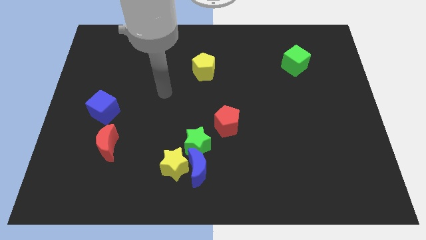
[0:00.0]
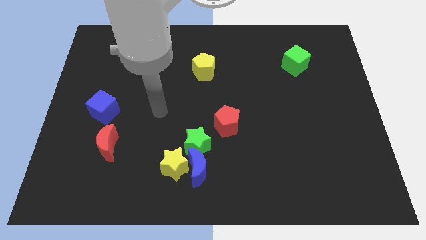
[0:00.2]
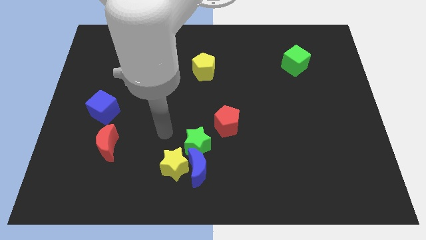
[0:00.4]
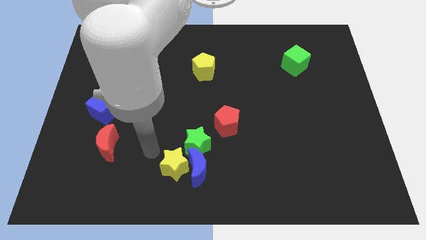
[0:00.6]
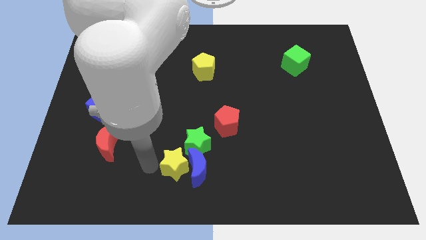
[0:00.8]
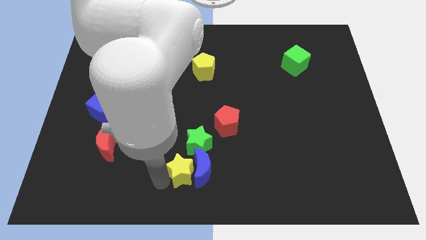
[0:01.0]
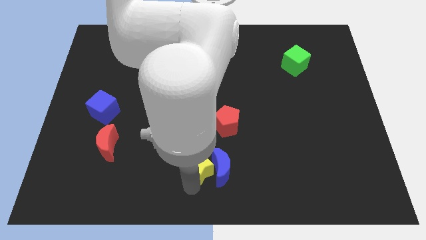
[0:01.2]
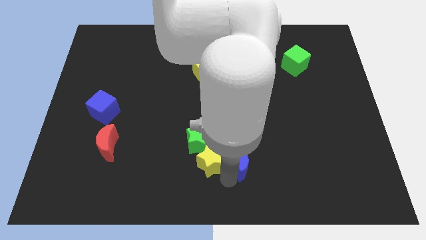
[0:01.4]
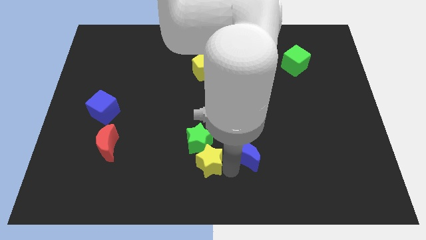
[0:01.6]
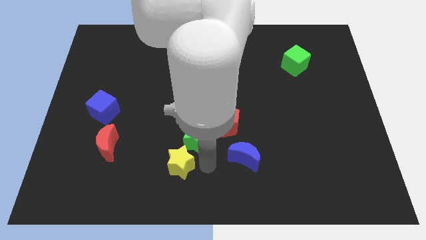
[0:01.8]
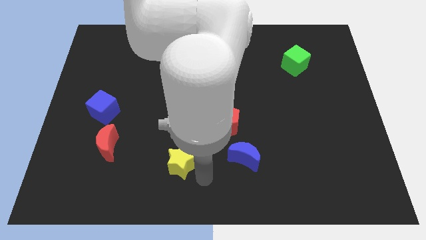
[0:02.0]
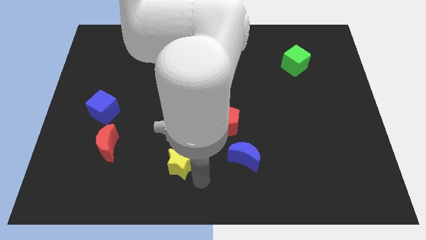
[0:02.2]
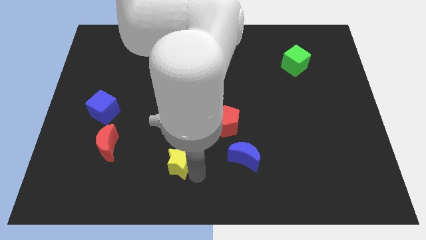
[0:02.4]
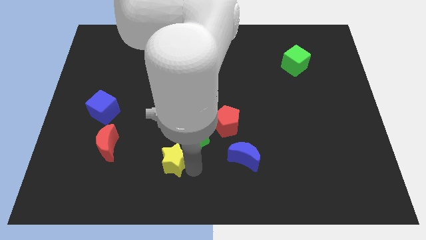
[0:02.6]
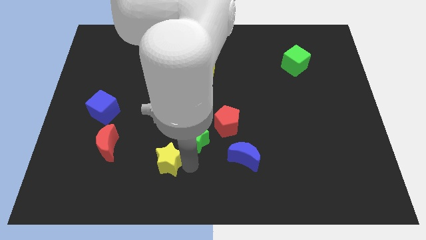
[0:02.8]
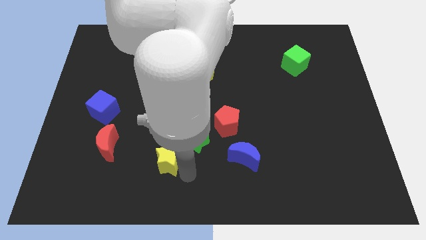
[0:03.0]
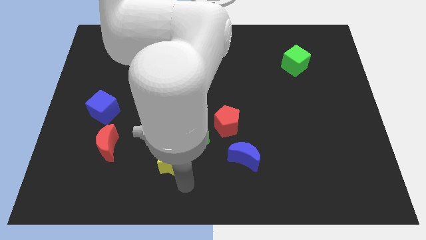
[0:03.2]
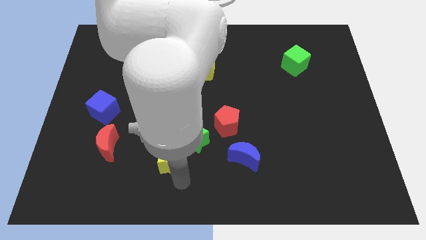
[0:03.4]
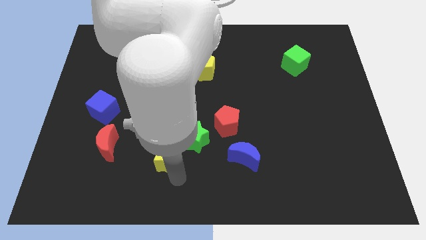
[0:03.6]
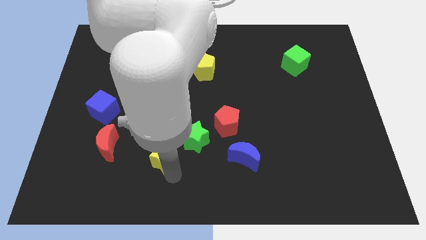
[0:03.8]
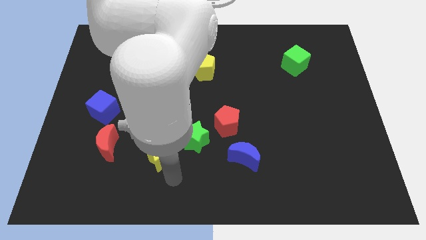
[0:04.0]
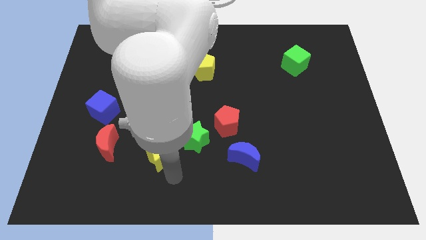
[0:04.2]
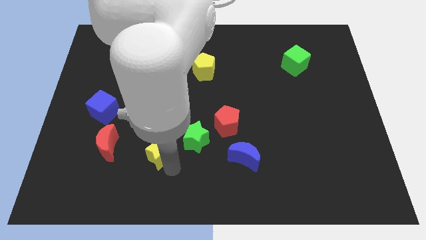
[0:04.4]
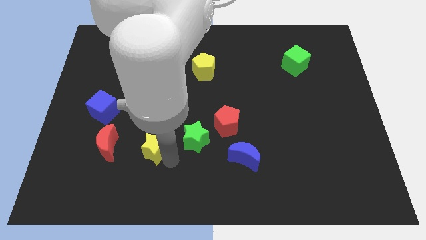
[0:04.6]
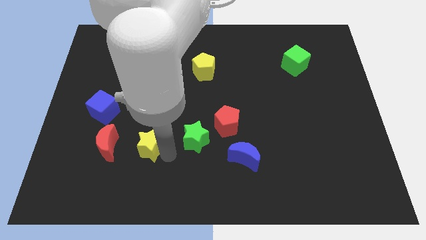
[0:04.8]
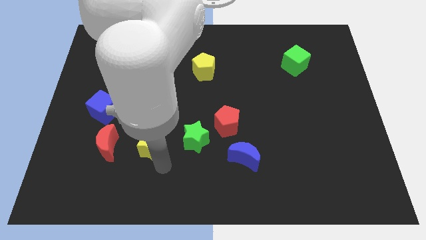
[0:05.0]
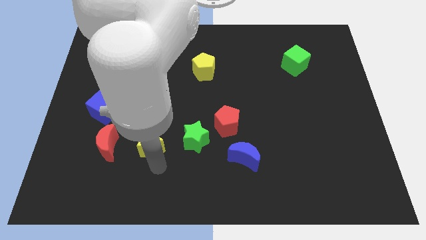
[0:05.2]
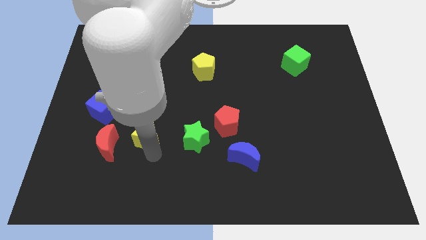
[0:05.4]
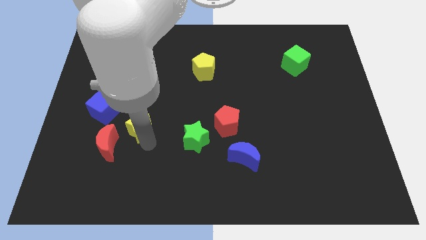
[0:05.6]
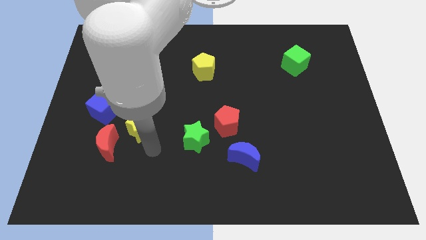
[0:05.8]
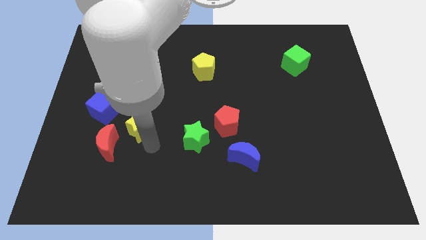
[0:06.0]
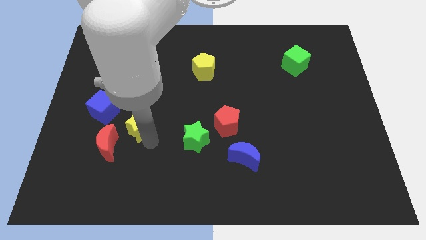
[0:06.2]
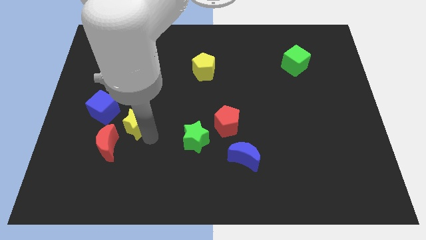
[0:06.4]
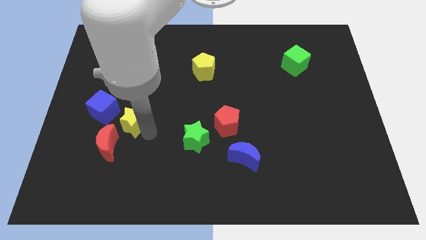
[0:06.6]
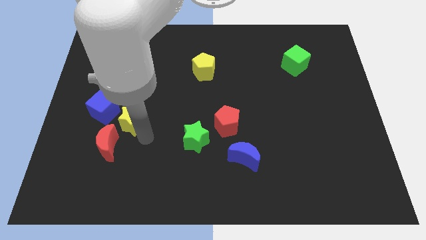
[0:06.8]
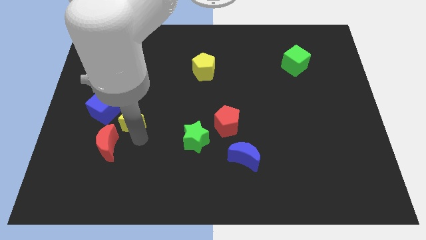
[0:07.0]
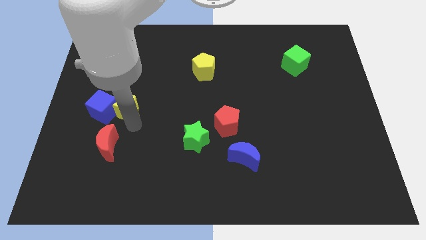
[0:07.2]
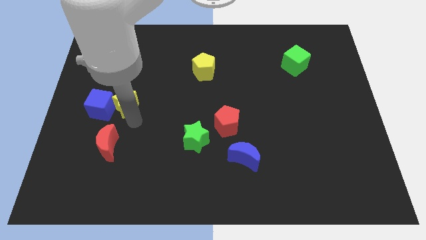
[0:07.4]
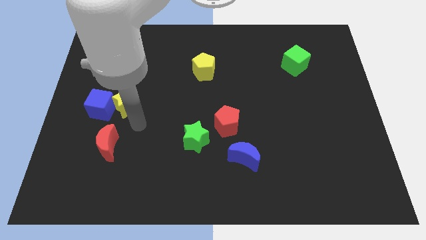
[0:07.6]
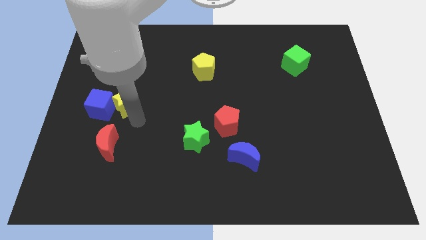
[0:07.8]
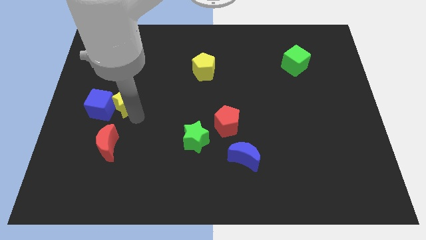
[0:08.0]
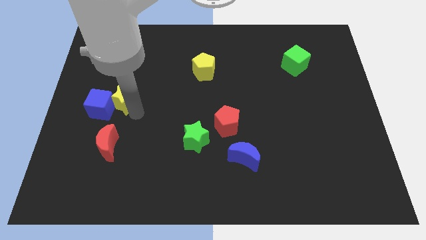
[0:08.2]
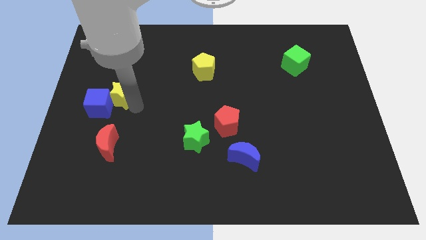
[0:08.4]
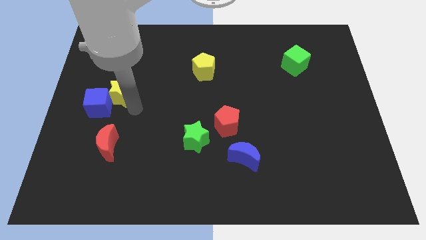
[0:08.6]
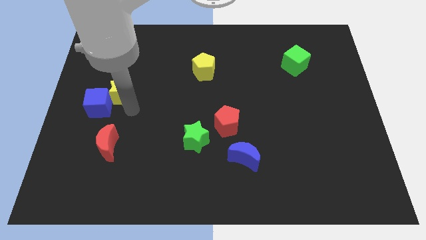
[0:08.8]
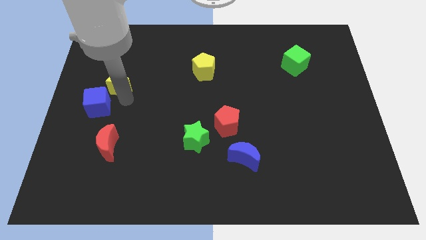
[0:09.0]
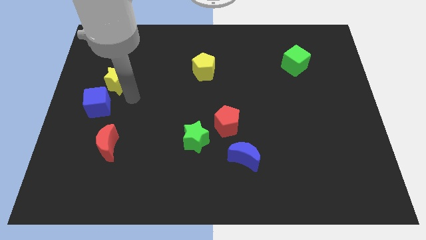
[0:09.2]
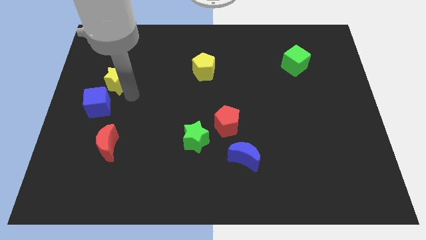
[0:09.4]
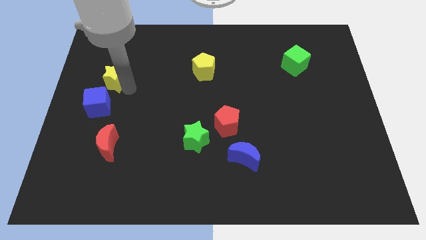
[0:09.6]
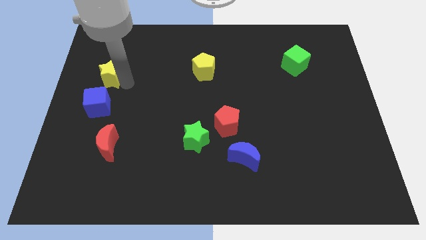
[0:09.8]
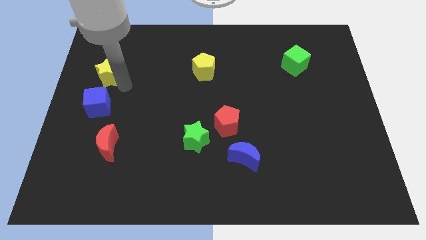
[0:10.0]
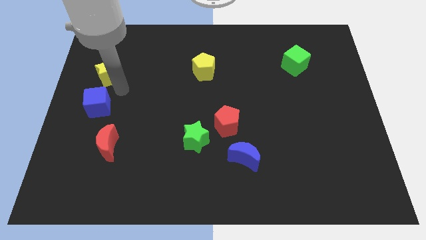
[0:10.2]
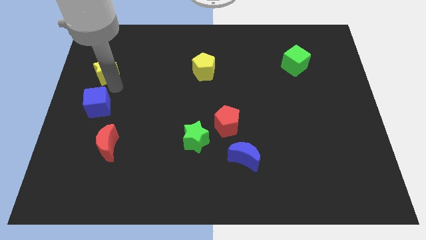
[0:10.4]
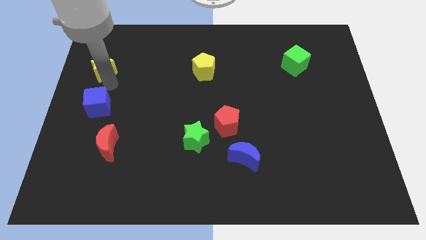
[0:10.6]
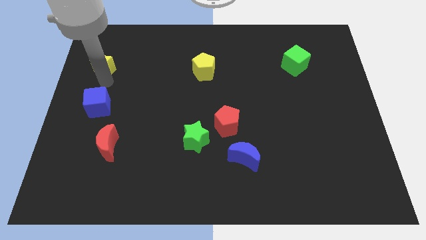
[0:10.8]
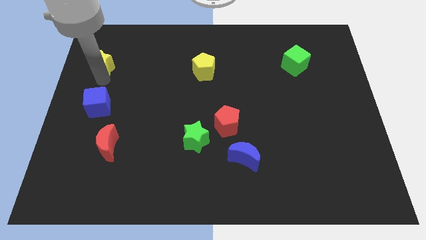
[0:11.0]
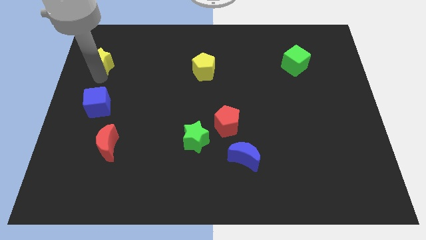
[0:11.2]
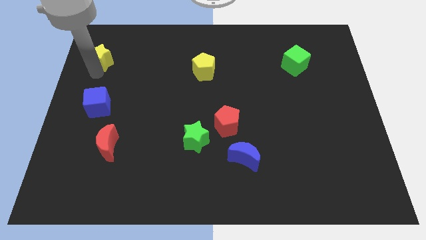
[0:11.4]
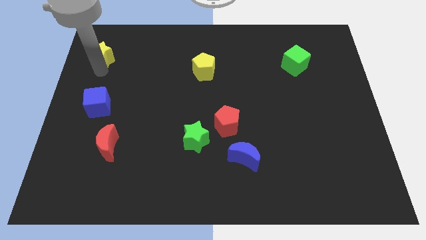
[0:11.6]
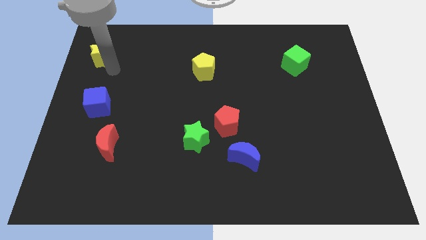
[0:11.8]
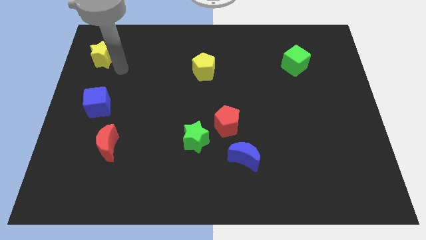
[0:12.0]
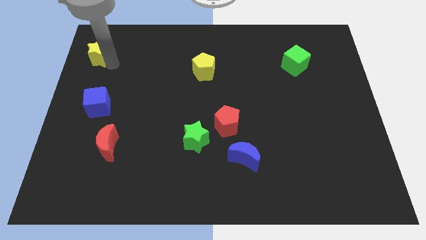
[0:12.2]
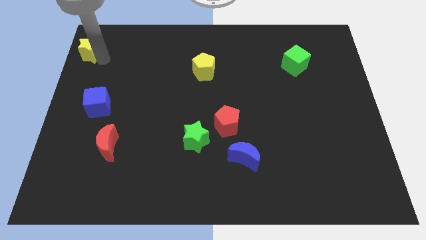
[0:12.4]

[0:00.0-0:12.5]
put the yellow star to the top left corner

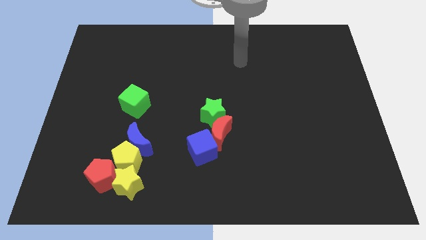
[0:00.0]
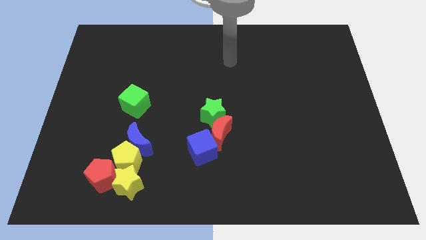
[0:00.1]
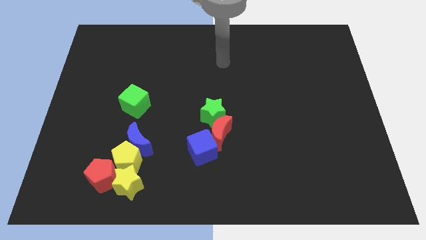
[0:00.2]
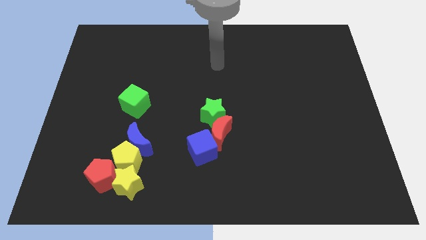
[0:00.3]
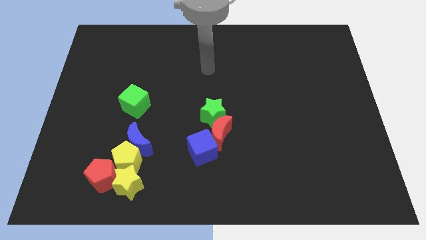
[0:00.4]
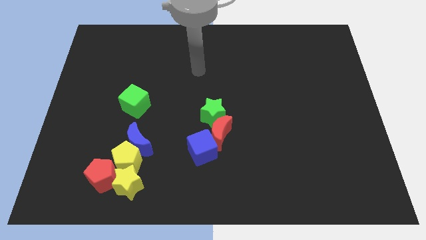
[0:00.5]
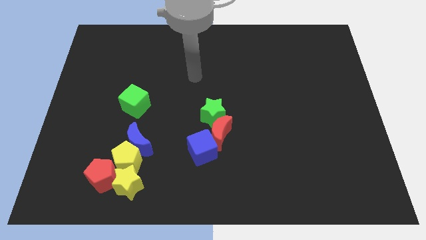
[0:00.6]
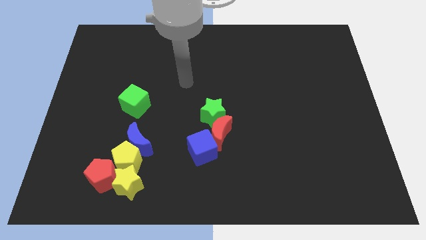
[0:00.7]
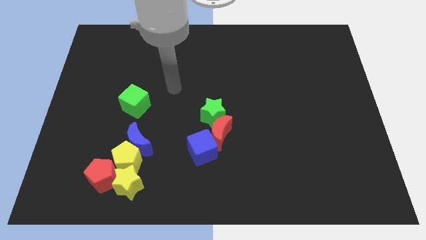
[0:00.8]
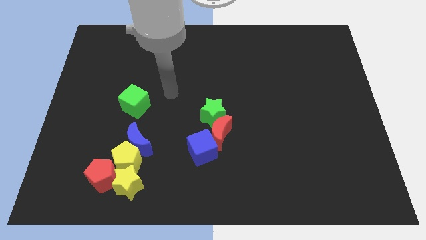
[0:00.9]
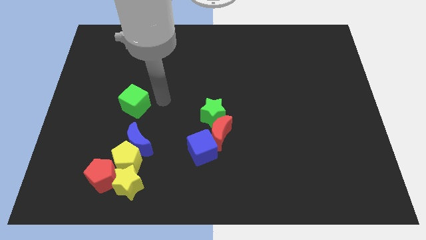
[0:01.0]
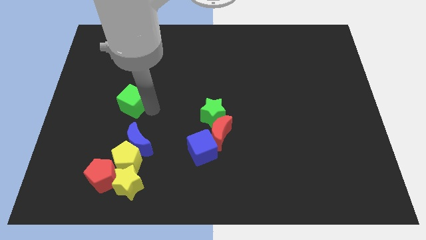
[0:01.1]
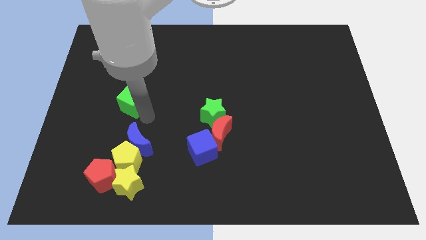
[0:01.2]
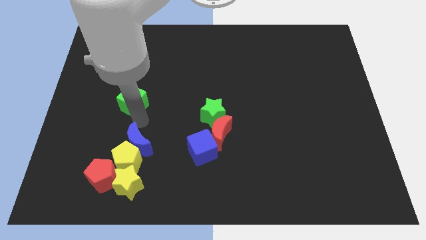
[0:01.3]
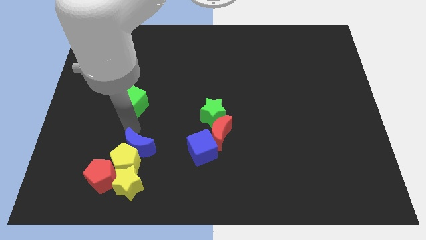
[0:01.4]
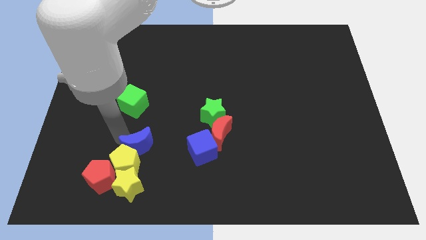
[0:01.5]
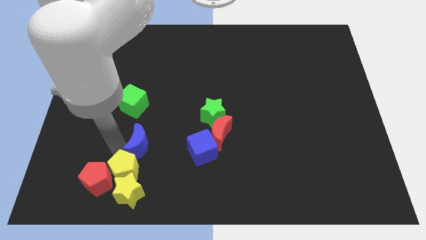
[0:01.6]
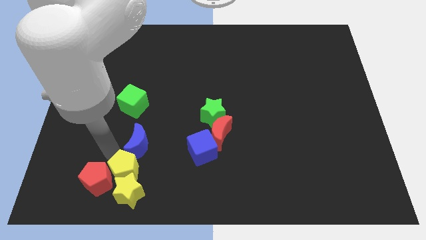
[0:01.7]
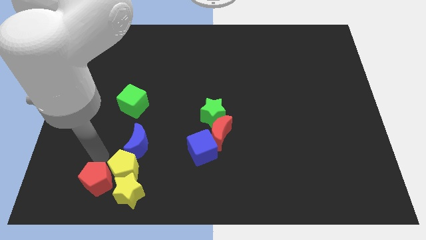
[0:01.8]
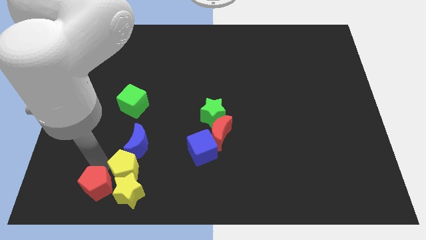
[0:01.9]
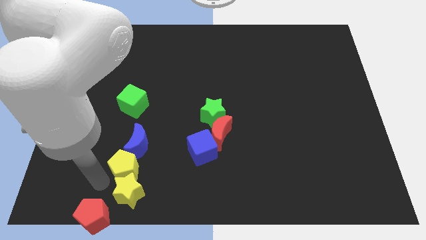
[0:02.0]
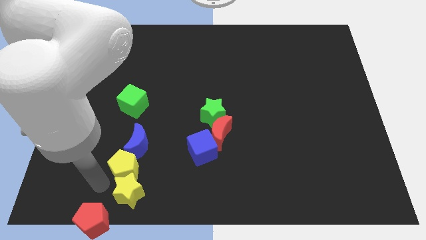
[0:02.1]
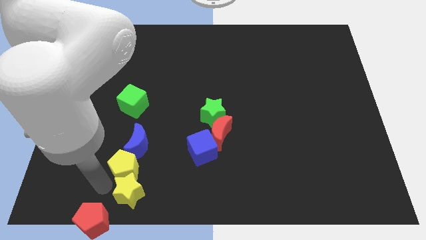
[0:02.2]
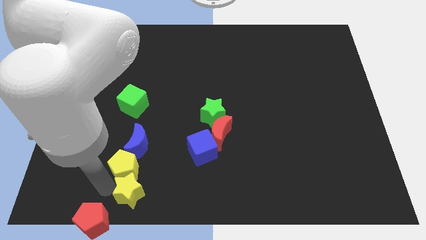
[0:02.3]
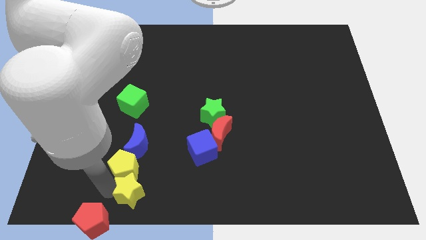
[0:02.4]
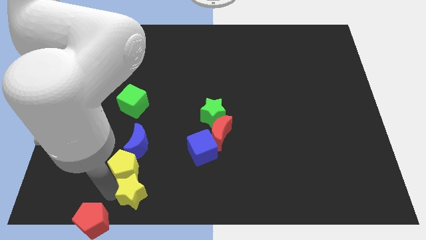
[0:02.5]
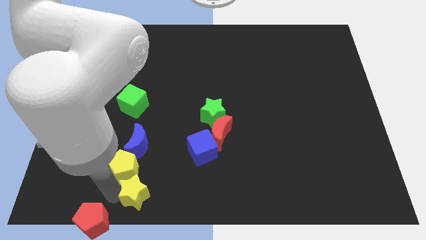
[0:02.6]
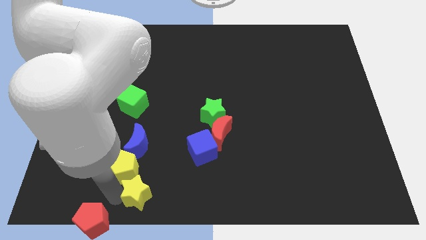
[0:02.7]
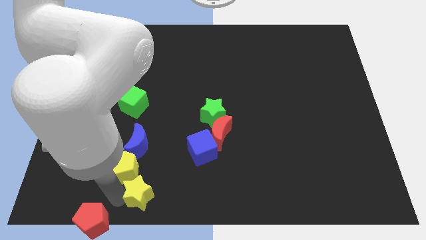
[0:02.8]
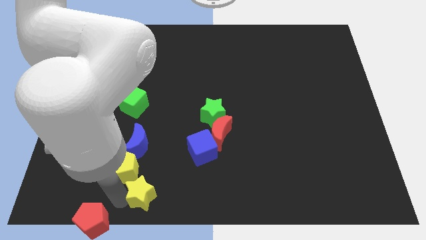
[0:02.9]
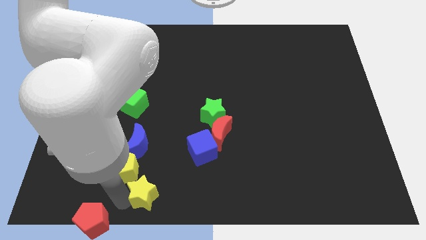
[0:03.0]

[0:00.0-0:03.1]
put the yellow star to the bottom side
